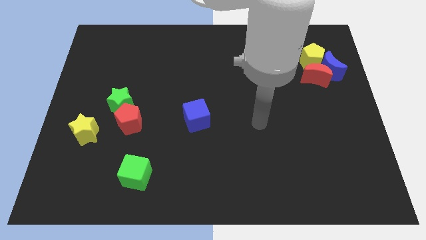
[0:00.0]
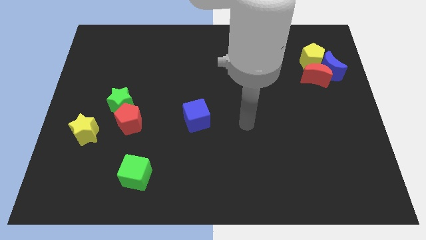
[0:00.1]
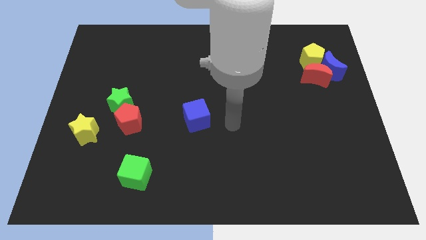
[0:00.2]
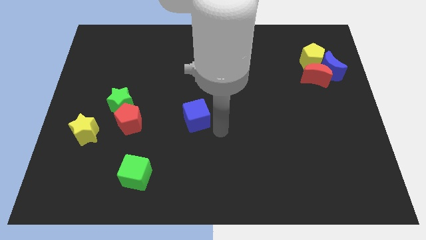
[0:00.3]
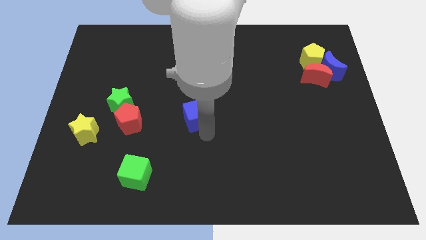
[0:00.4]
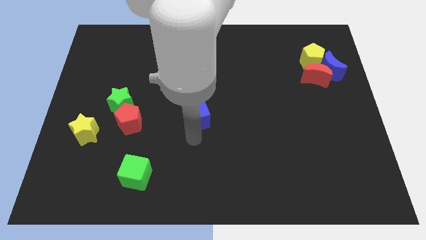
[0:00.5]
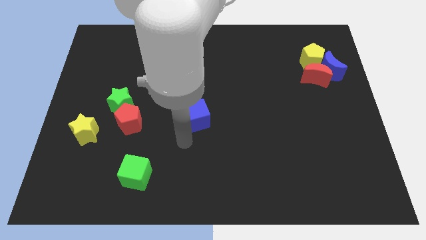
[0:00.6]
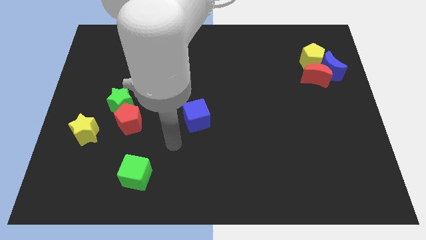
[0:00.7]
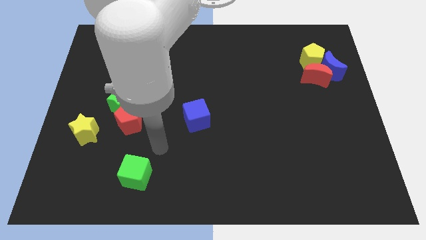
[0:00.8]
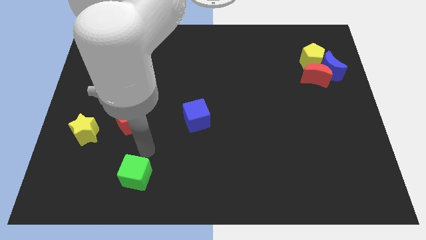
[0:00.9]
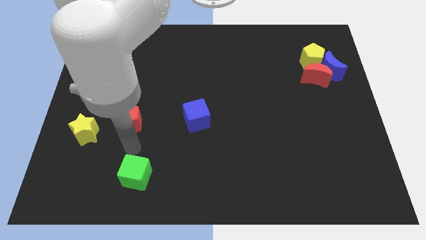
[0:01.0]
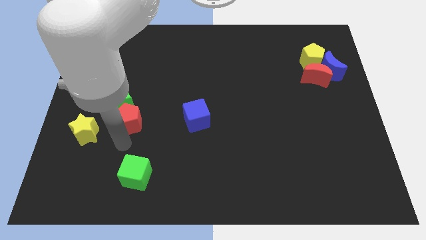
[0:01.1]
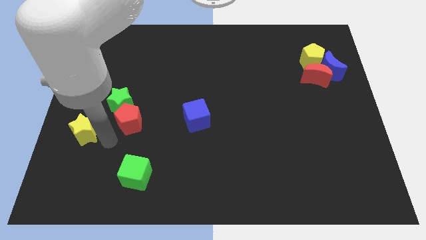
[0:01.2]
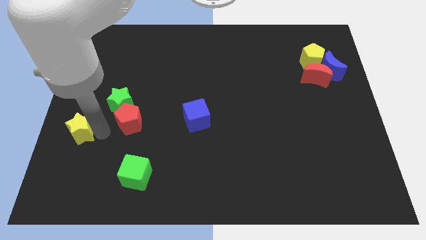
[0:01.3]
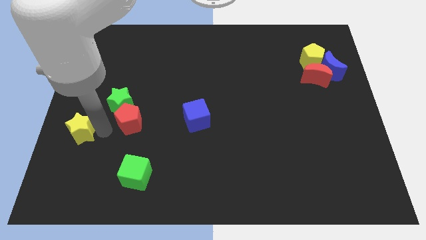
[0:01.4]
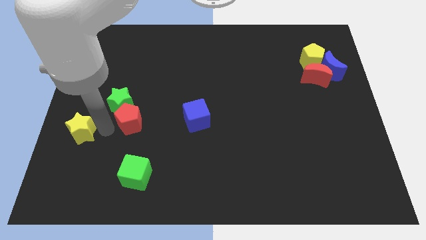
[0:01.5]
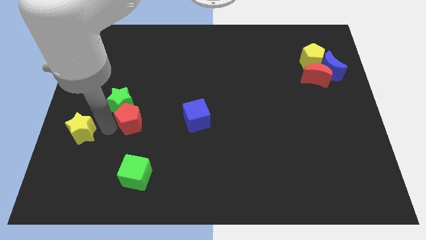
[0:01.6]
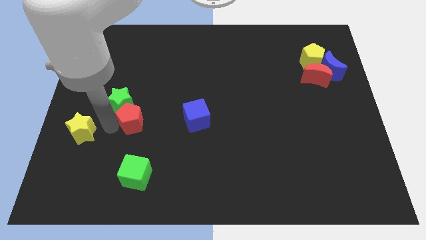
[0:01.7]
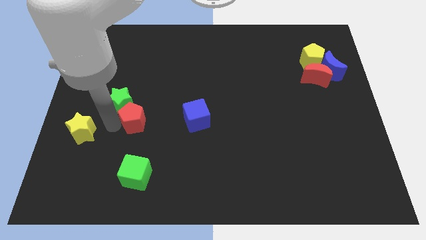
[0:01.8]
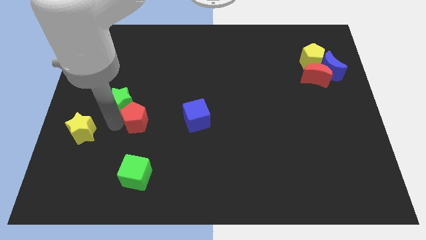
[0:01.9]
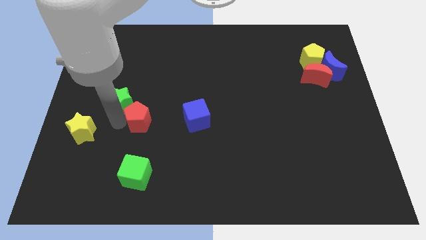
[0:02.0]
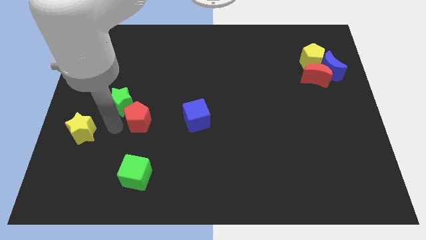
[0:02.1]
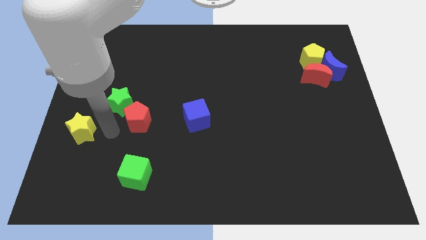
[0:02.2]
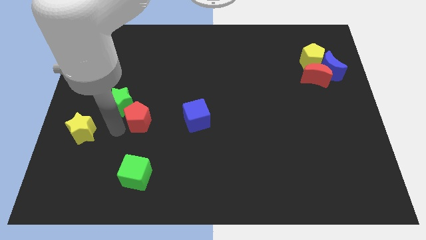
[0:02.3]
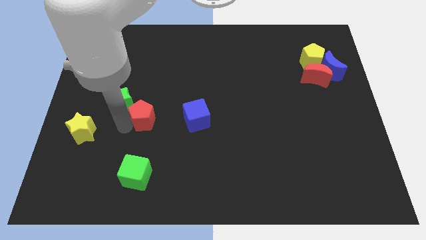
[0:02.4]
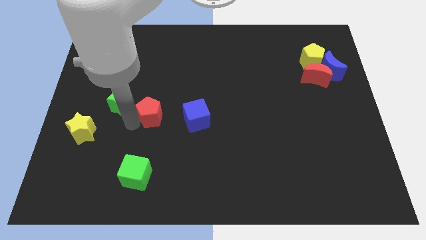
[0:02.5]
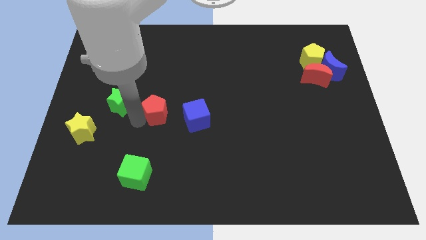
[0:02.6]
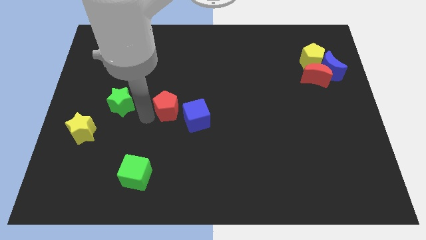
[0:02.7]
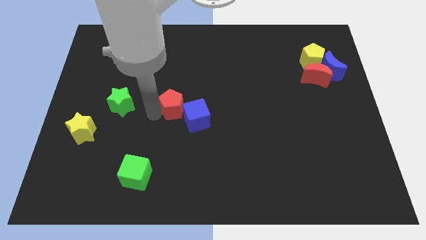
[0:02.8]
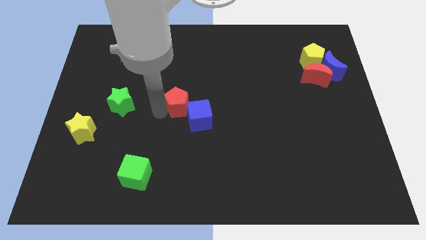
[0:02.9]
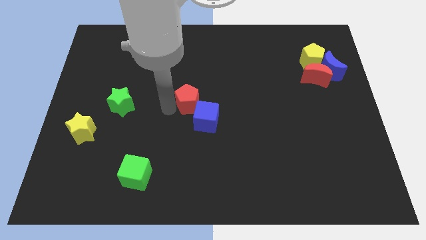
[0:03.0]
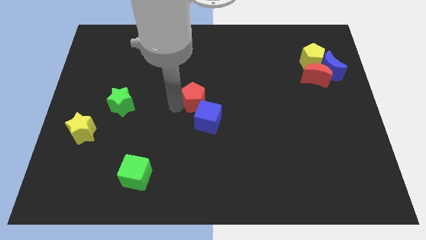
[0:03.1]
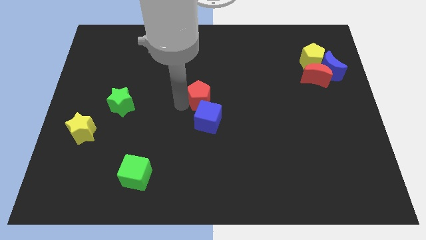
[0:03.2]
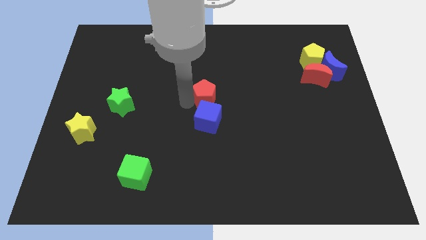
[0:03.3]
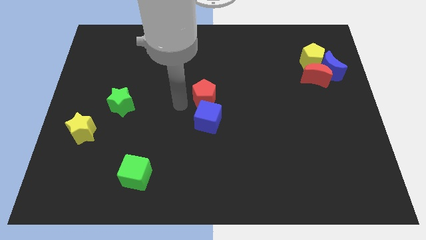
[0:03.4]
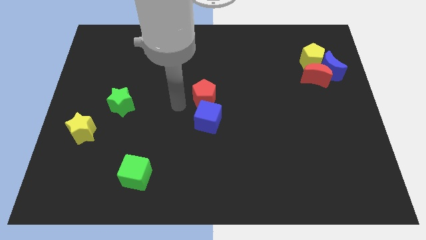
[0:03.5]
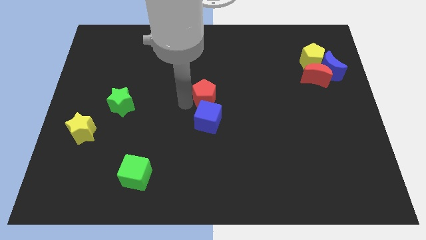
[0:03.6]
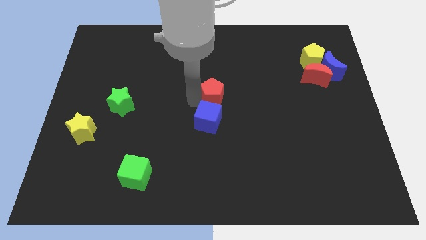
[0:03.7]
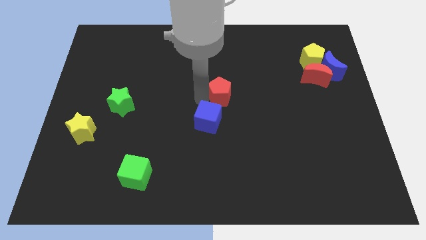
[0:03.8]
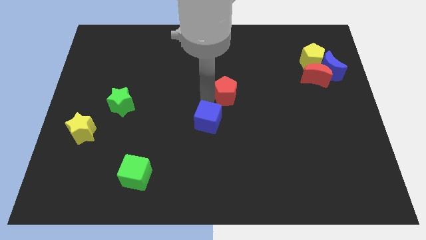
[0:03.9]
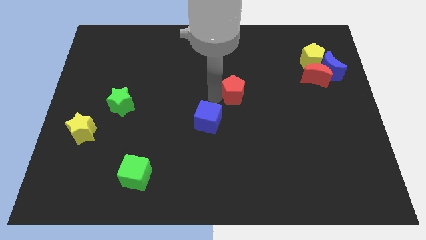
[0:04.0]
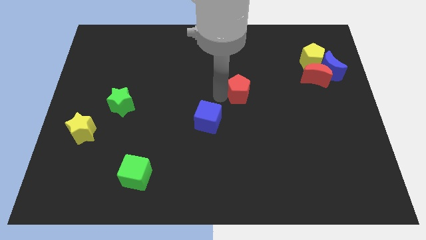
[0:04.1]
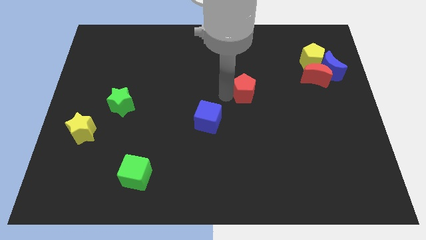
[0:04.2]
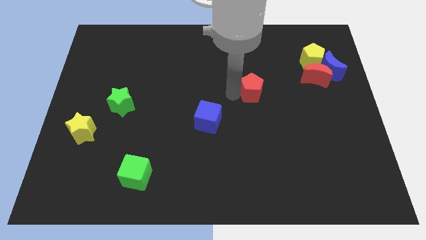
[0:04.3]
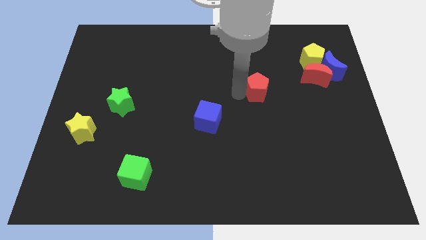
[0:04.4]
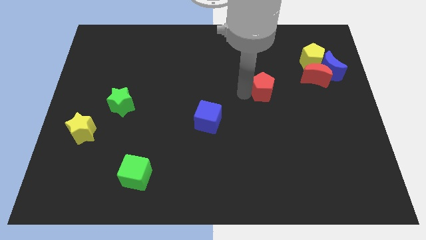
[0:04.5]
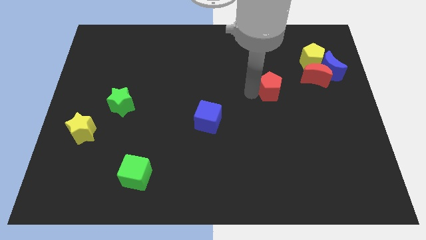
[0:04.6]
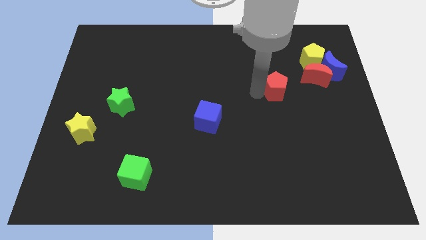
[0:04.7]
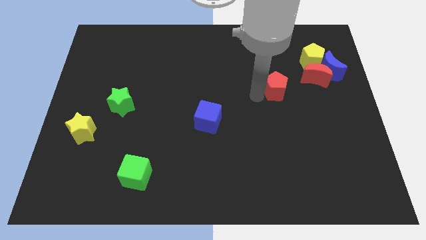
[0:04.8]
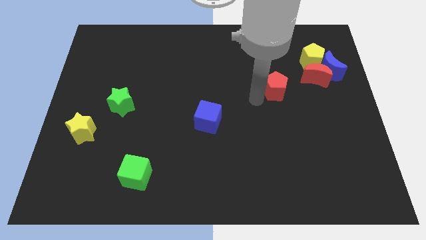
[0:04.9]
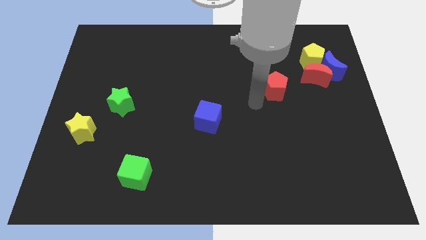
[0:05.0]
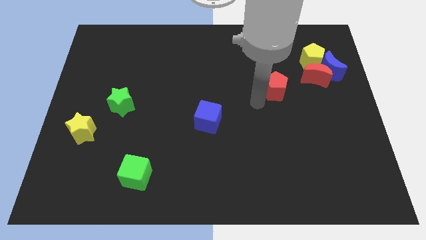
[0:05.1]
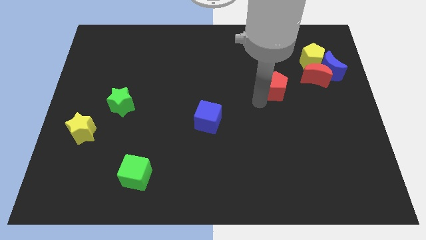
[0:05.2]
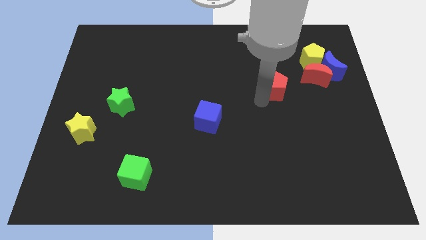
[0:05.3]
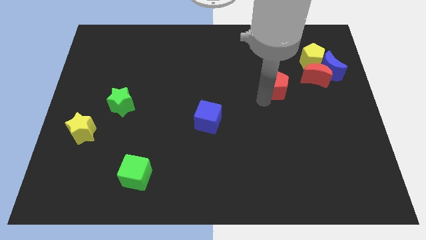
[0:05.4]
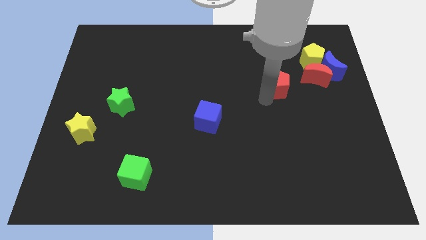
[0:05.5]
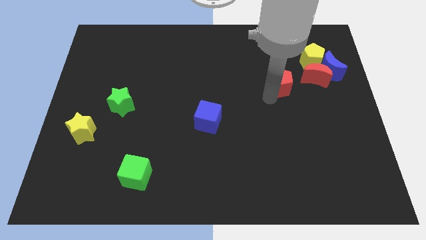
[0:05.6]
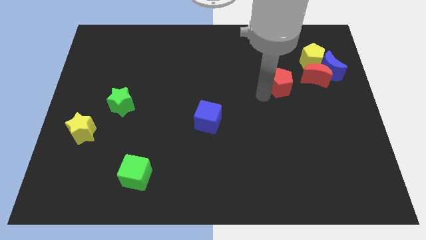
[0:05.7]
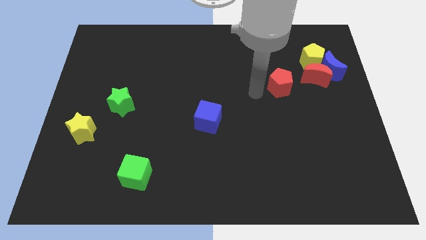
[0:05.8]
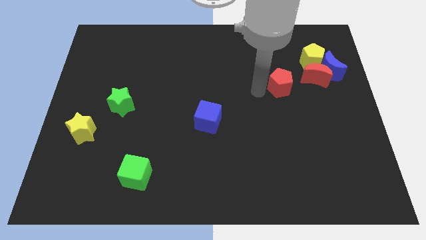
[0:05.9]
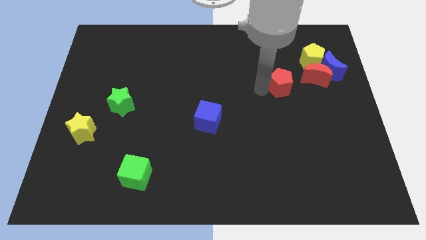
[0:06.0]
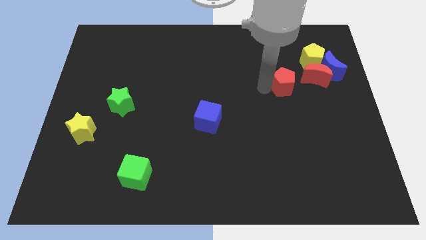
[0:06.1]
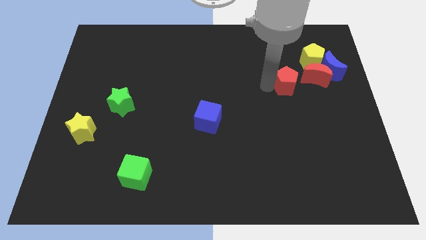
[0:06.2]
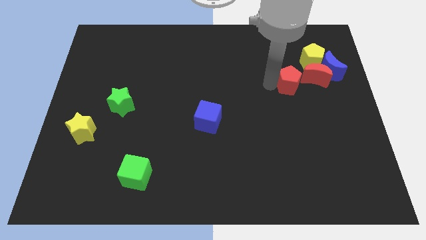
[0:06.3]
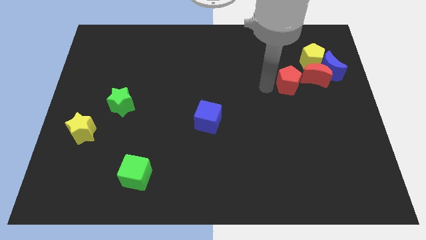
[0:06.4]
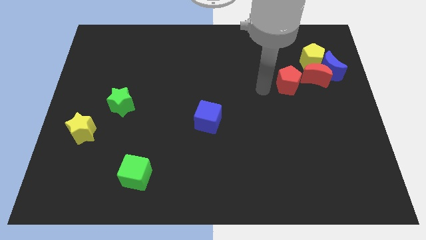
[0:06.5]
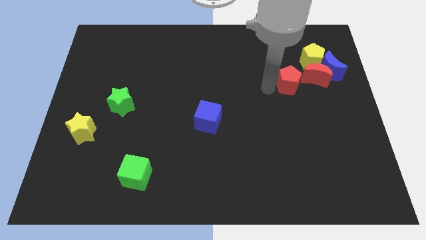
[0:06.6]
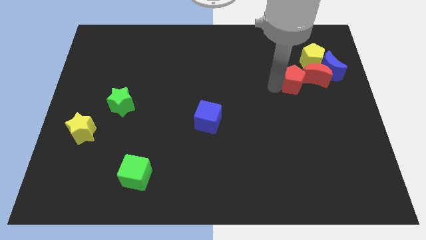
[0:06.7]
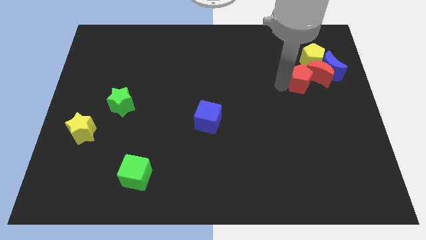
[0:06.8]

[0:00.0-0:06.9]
put the red pentagon towards the red moon
